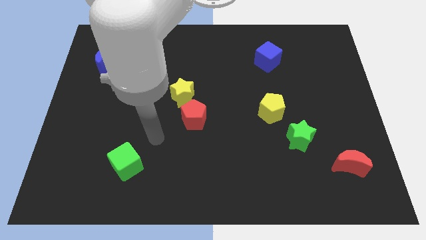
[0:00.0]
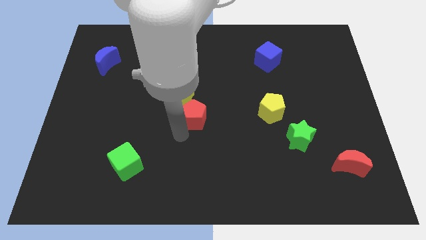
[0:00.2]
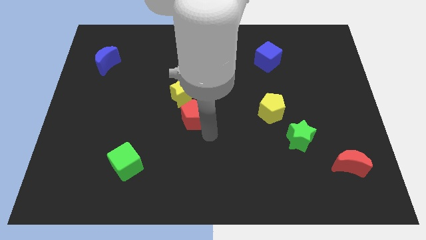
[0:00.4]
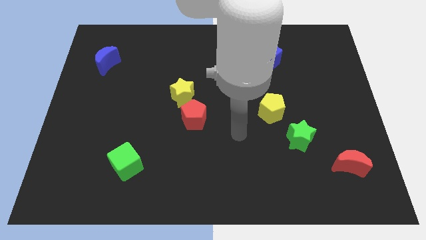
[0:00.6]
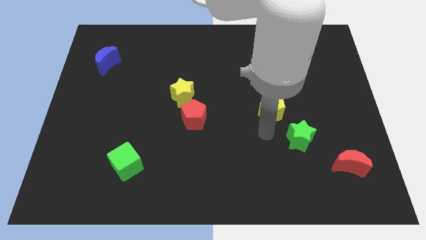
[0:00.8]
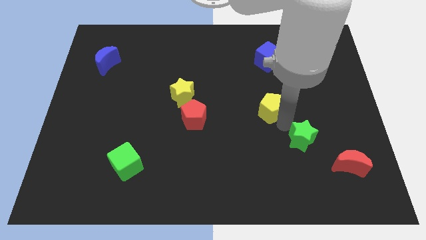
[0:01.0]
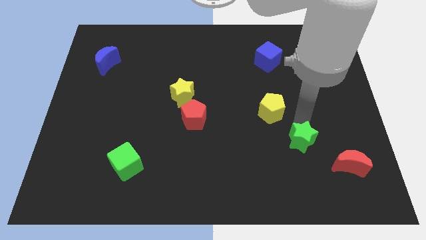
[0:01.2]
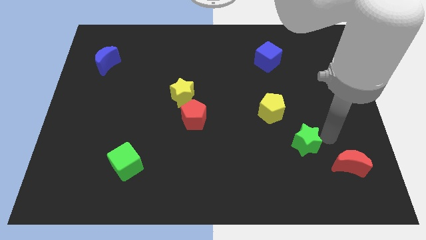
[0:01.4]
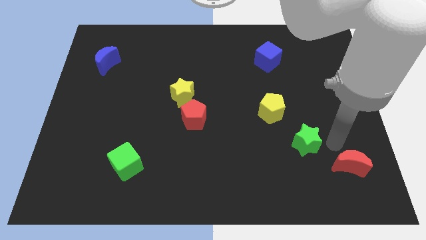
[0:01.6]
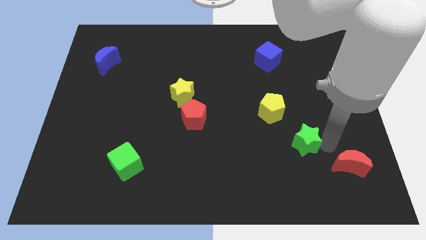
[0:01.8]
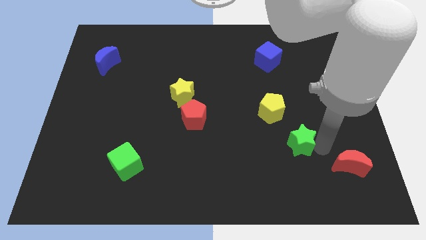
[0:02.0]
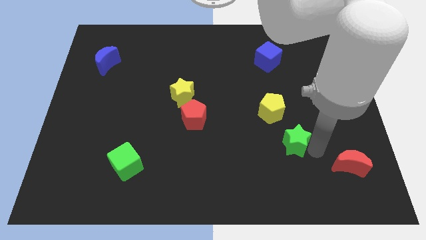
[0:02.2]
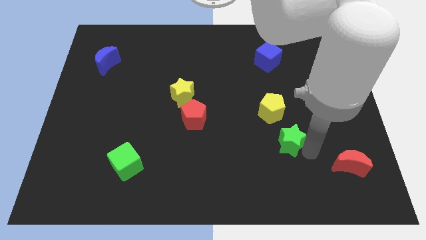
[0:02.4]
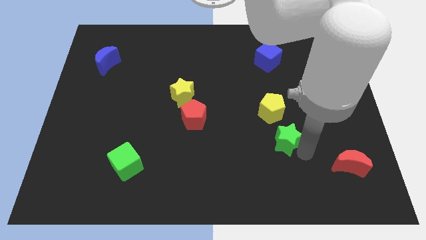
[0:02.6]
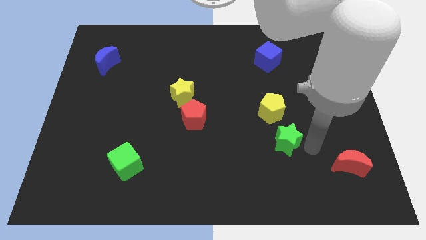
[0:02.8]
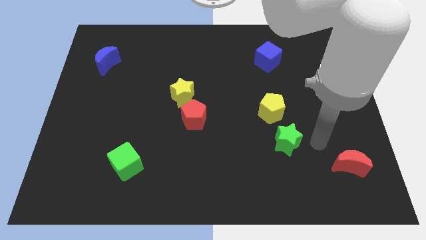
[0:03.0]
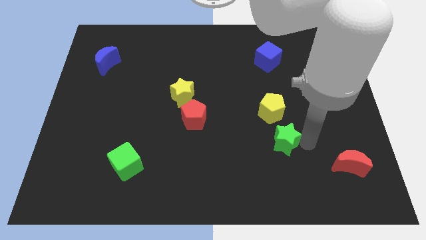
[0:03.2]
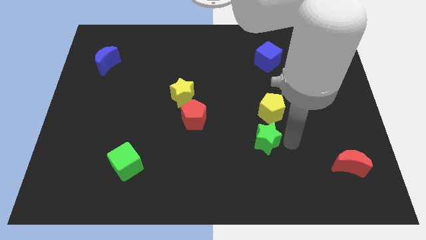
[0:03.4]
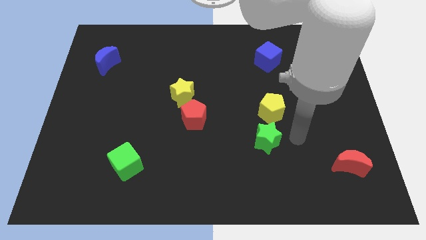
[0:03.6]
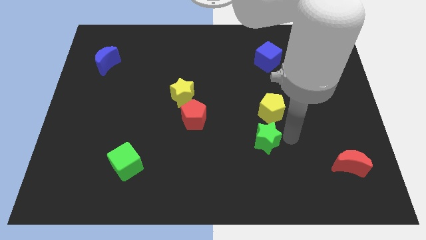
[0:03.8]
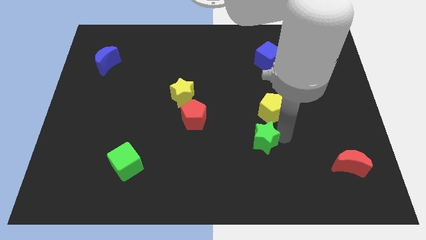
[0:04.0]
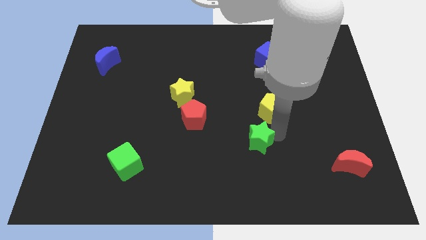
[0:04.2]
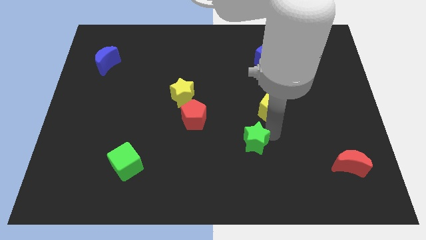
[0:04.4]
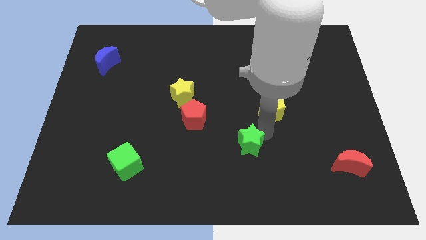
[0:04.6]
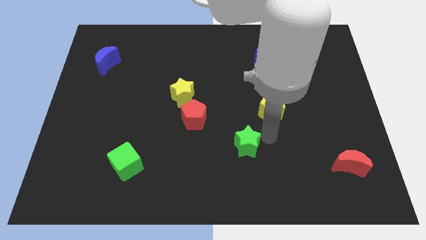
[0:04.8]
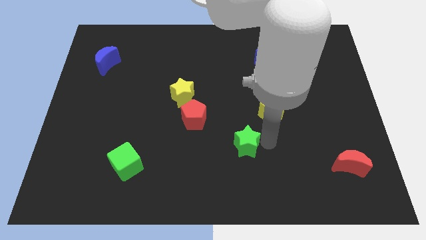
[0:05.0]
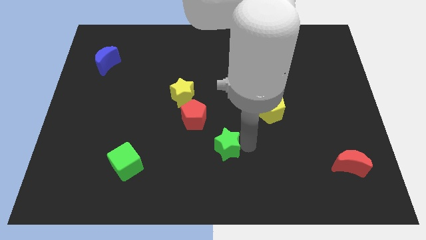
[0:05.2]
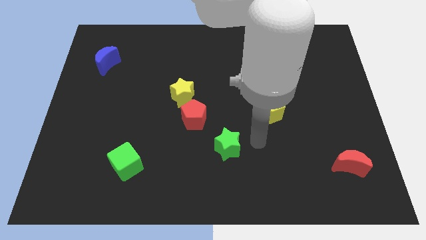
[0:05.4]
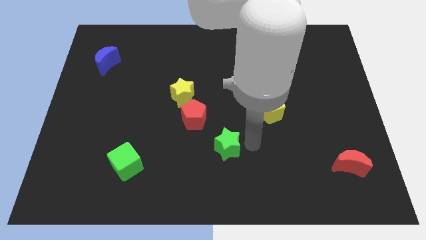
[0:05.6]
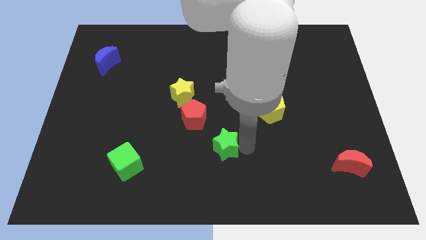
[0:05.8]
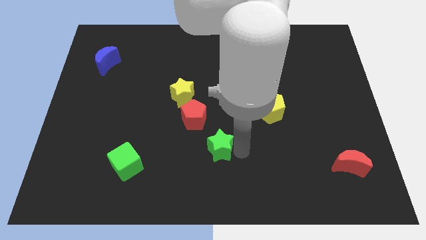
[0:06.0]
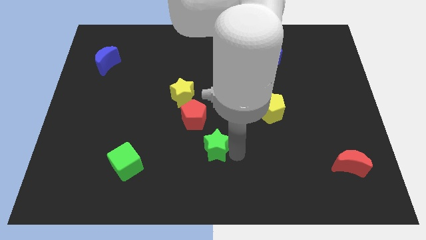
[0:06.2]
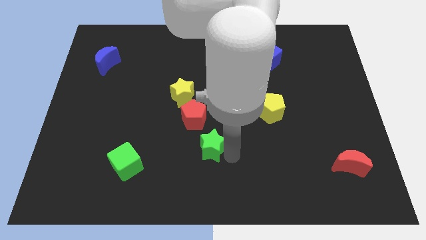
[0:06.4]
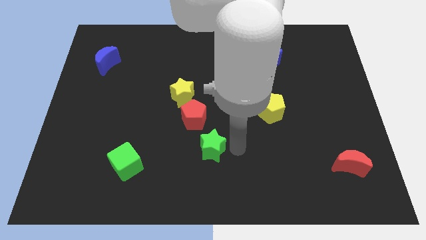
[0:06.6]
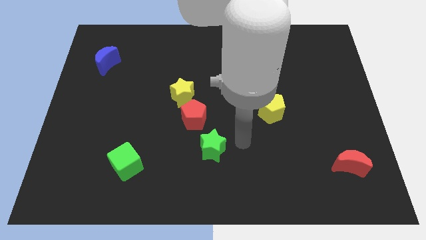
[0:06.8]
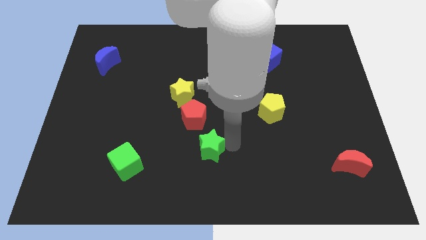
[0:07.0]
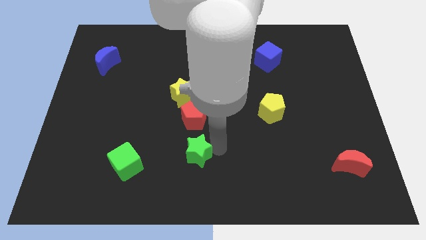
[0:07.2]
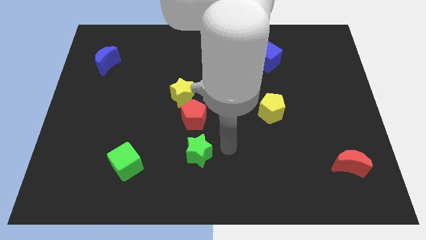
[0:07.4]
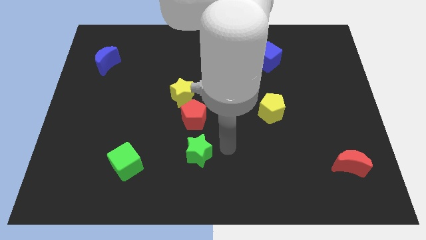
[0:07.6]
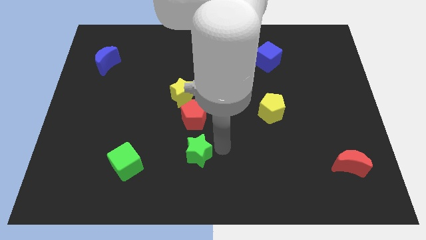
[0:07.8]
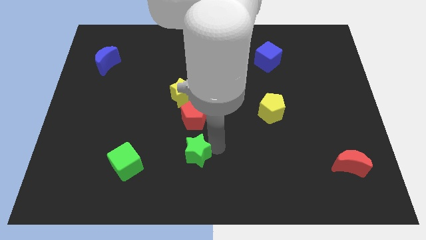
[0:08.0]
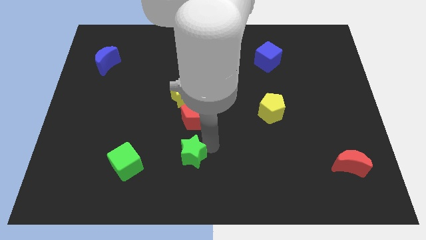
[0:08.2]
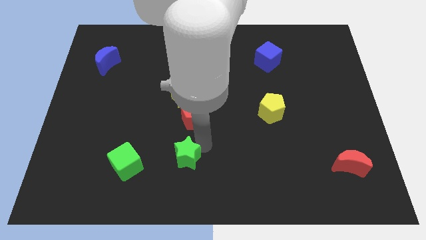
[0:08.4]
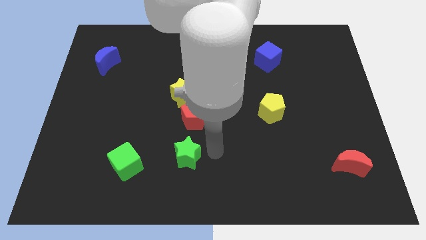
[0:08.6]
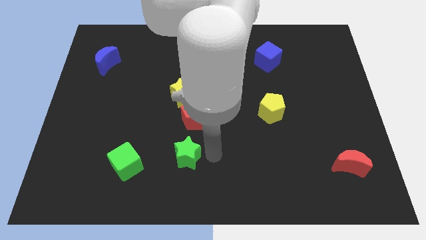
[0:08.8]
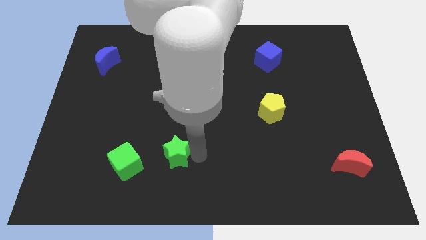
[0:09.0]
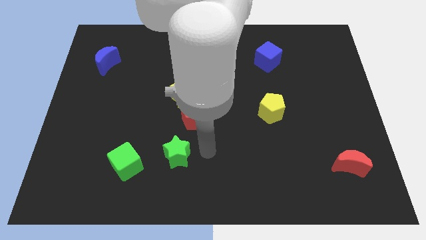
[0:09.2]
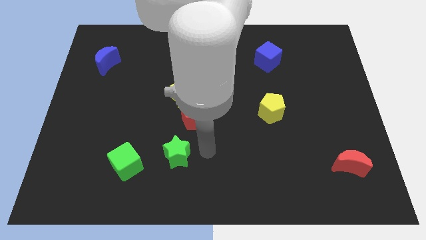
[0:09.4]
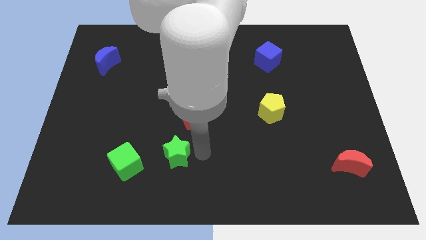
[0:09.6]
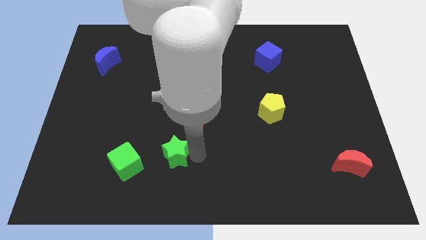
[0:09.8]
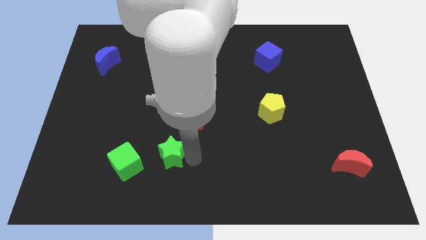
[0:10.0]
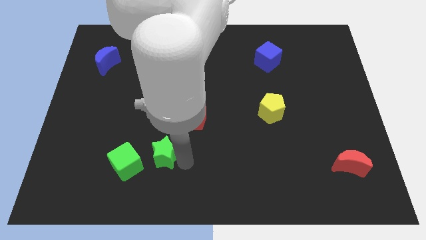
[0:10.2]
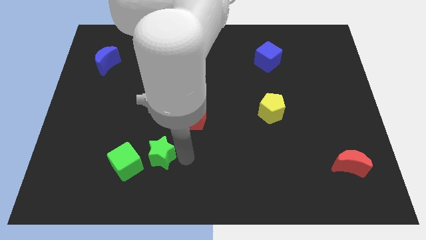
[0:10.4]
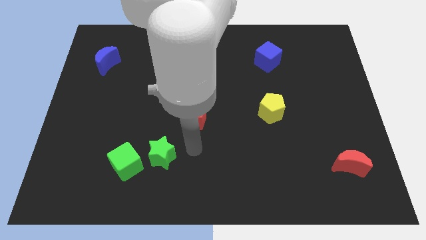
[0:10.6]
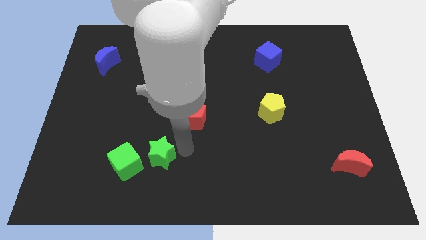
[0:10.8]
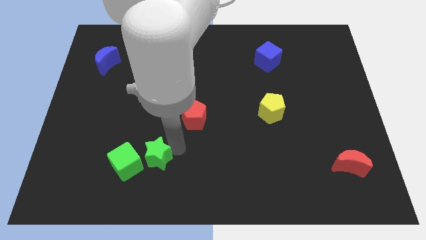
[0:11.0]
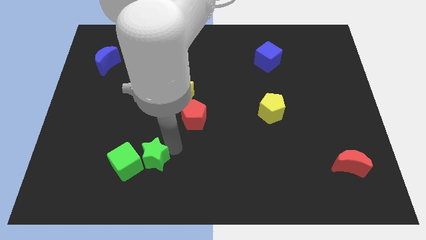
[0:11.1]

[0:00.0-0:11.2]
put the green star towards the green cube

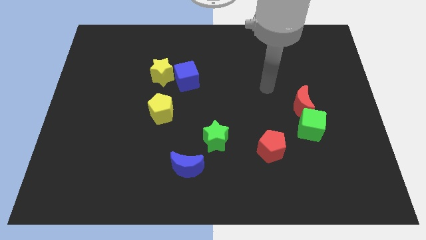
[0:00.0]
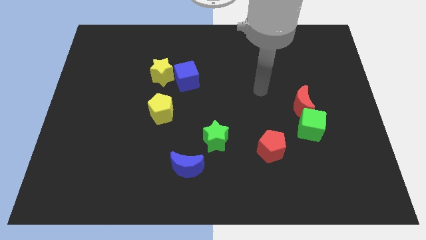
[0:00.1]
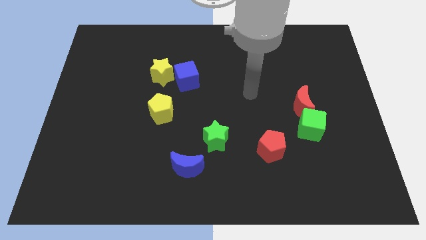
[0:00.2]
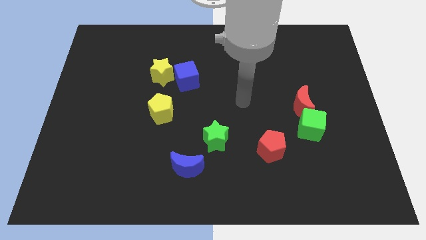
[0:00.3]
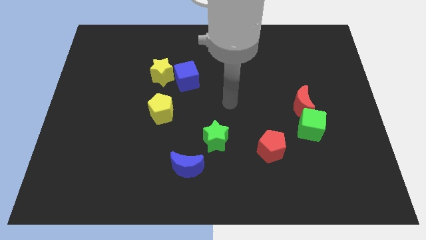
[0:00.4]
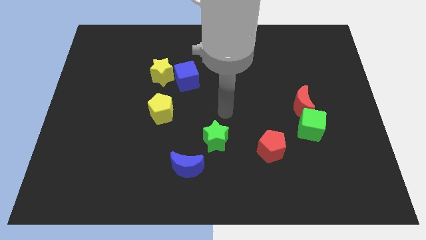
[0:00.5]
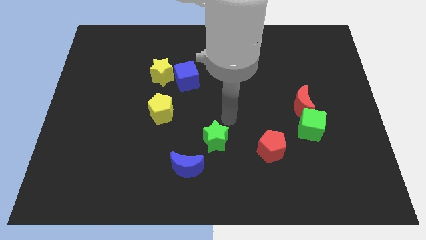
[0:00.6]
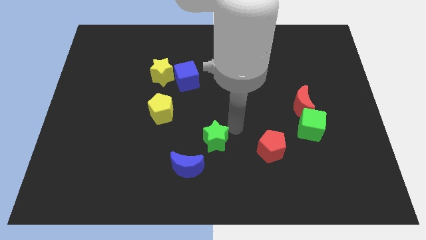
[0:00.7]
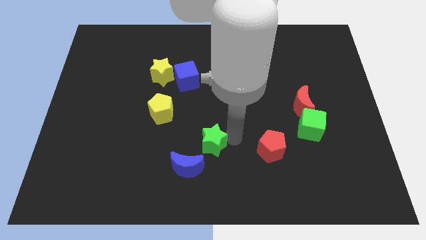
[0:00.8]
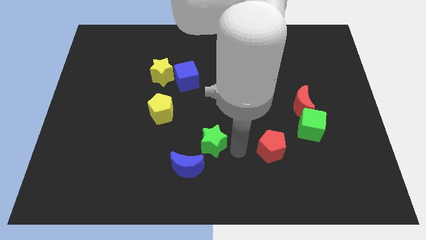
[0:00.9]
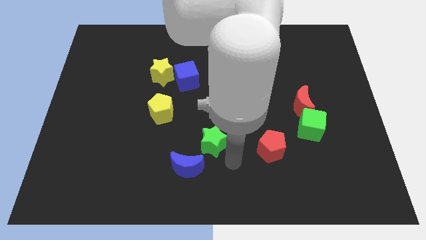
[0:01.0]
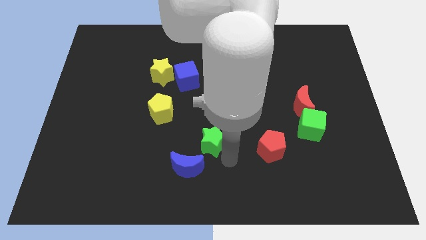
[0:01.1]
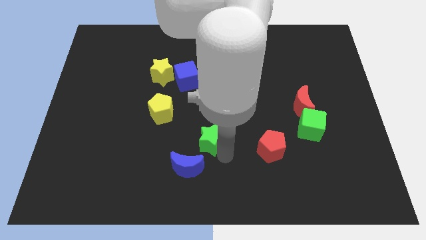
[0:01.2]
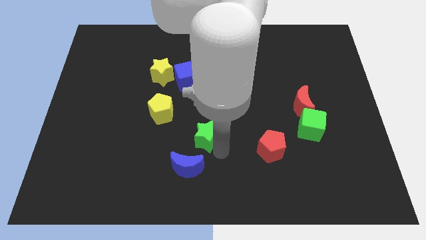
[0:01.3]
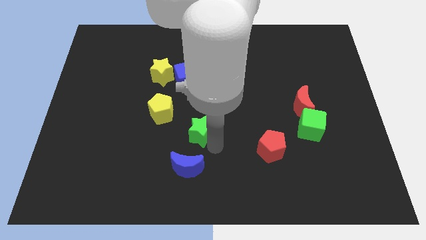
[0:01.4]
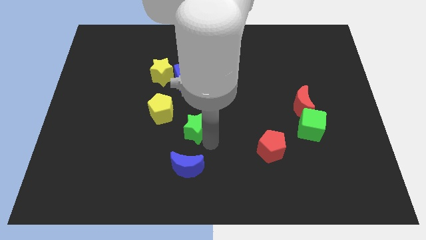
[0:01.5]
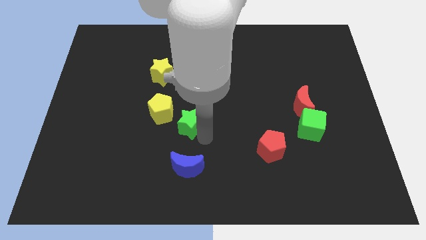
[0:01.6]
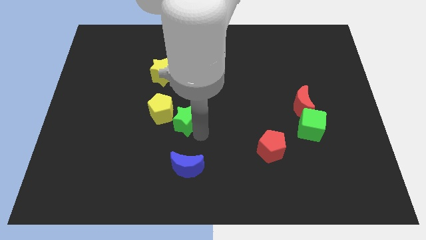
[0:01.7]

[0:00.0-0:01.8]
slide the green star close to the yellow pentagon

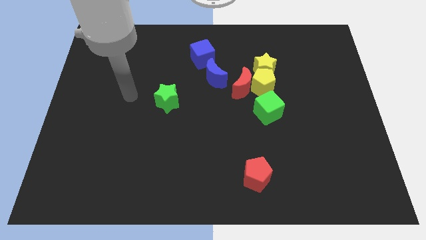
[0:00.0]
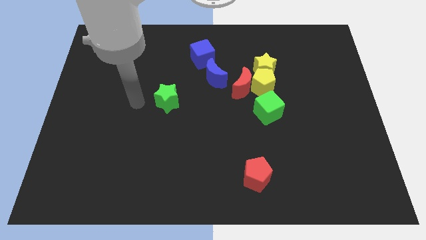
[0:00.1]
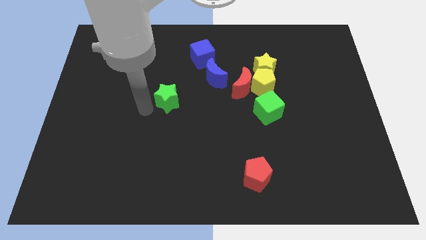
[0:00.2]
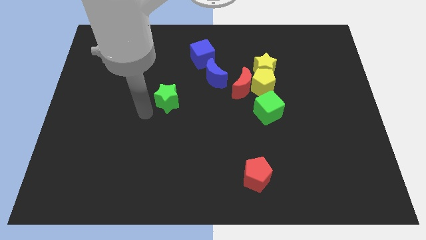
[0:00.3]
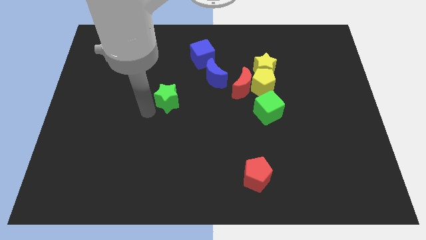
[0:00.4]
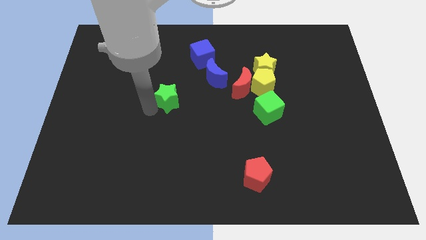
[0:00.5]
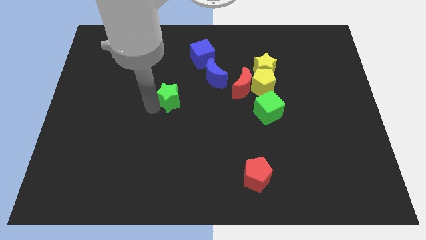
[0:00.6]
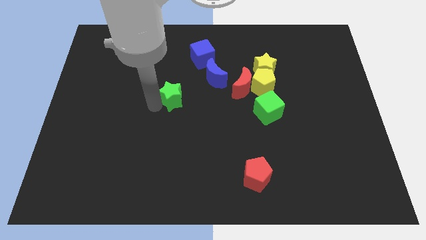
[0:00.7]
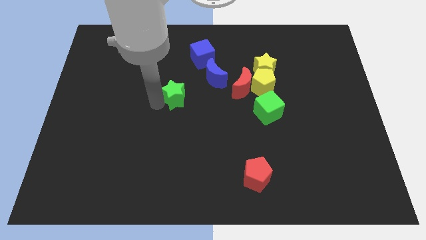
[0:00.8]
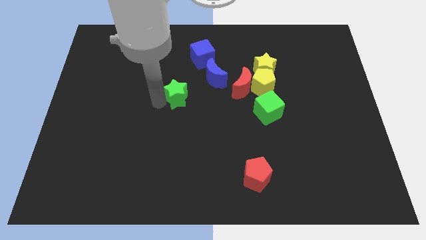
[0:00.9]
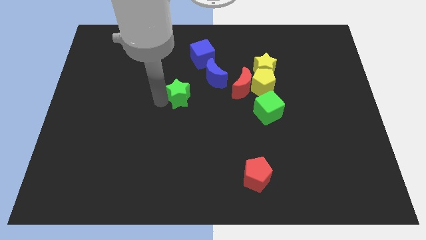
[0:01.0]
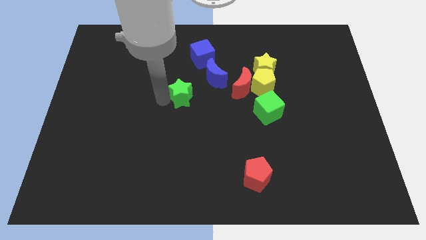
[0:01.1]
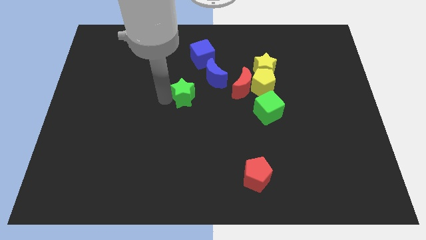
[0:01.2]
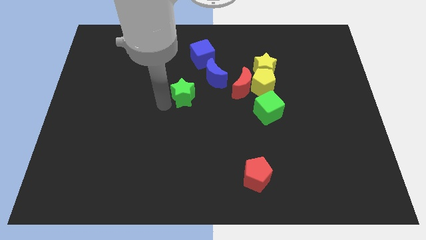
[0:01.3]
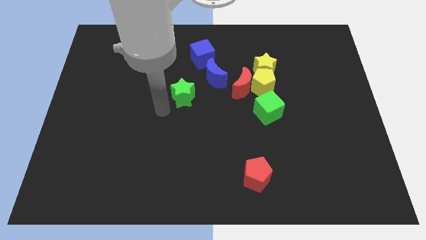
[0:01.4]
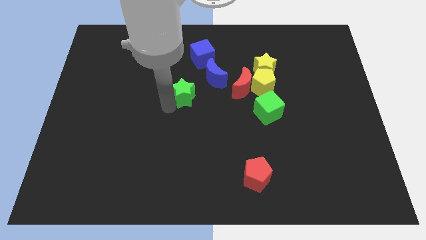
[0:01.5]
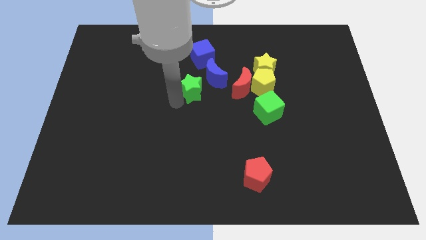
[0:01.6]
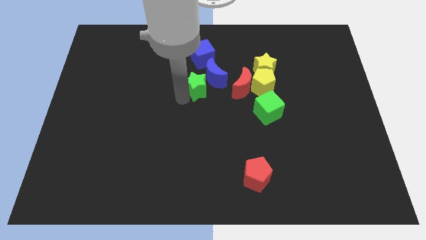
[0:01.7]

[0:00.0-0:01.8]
move the green star next to the blue moon
